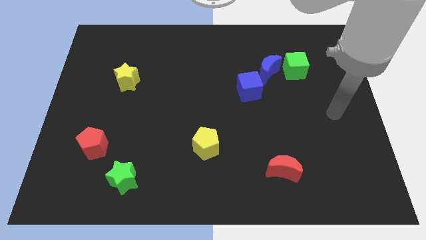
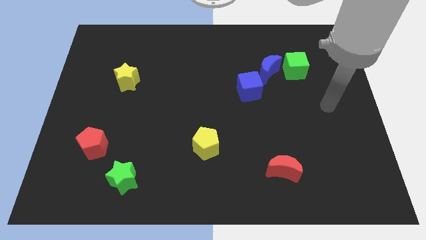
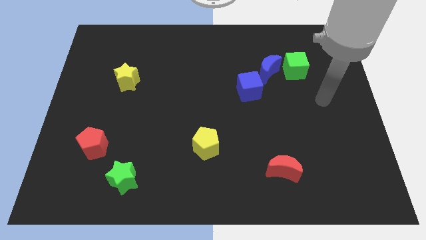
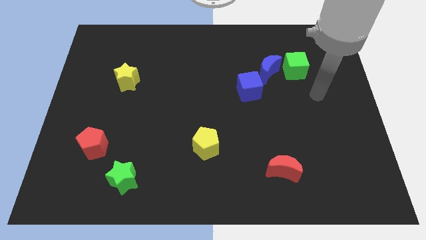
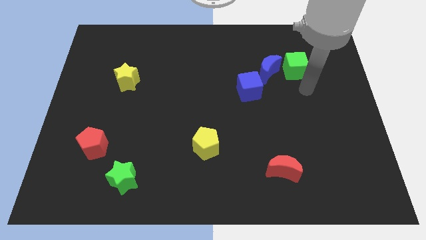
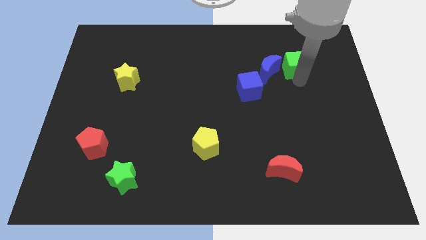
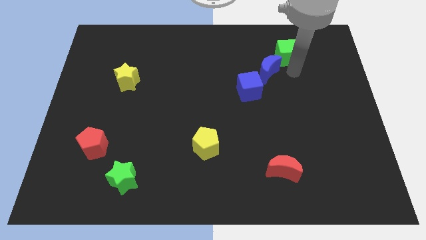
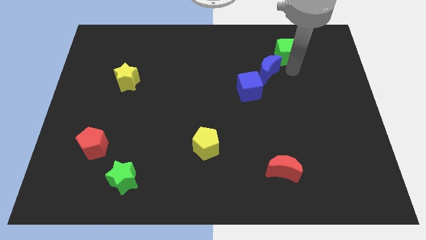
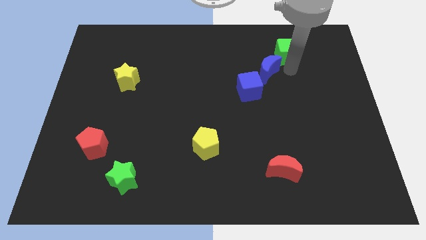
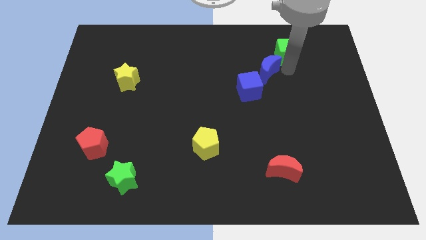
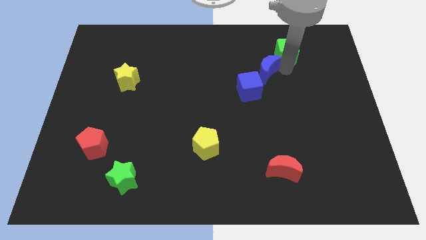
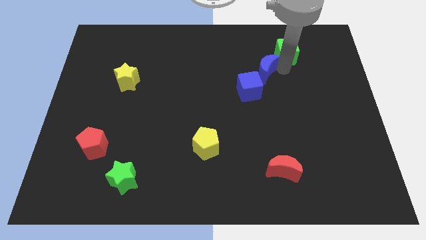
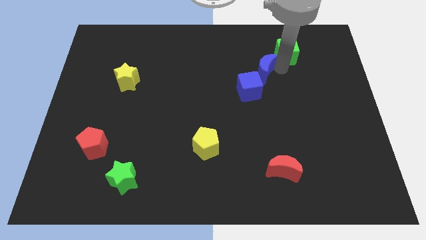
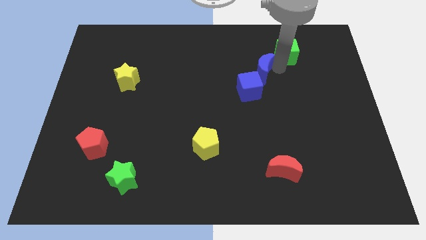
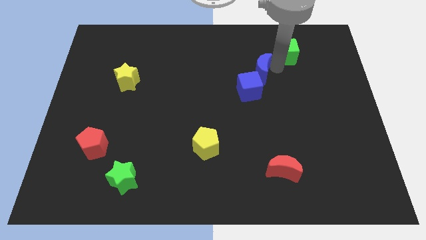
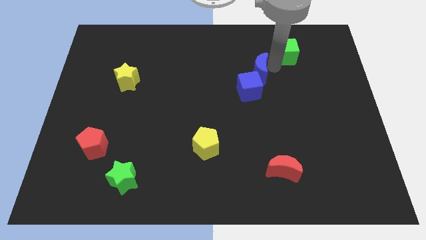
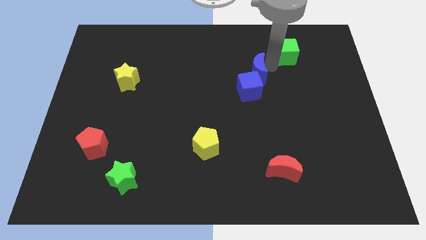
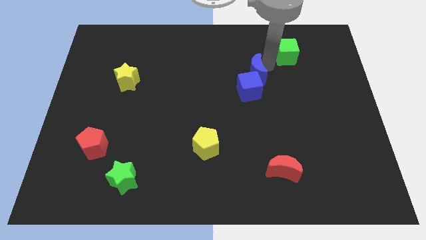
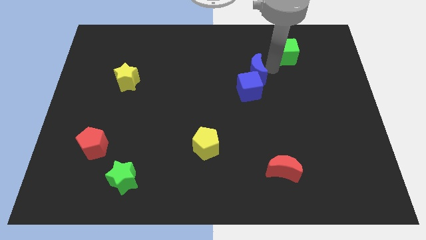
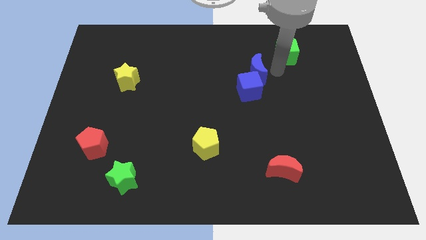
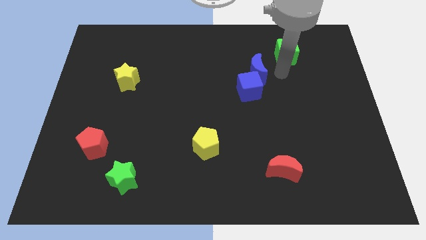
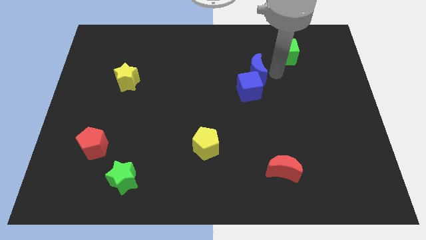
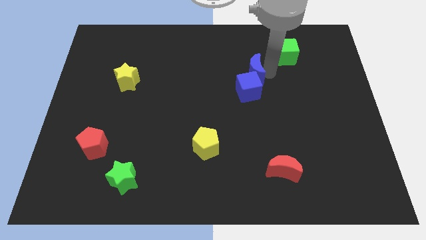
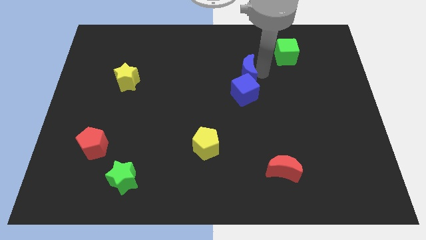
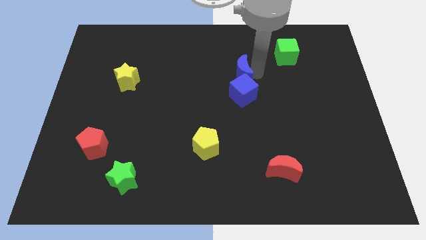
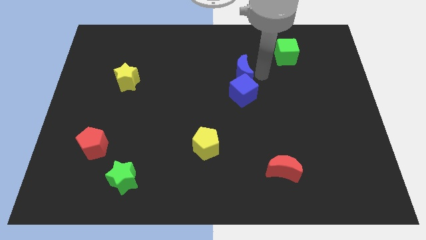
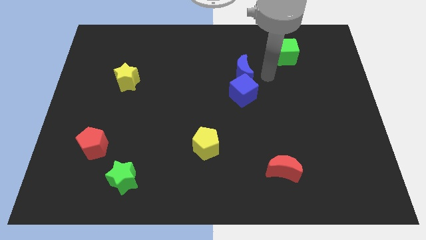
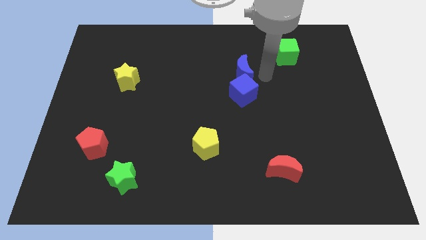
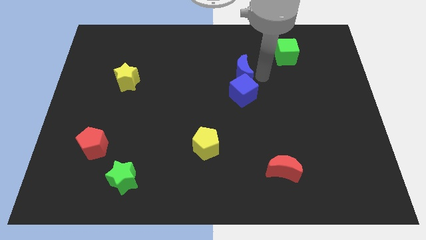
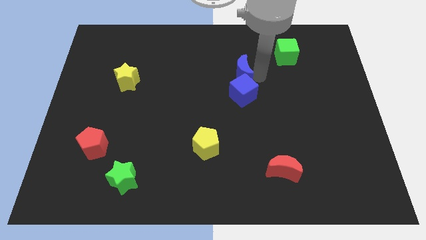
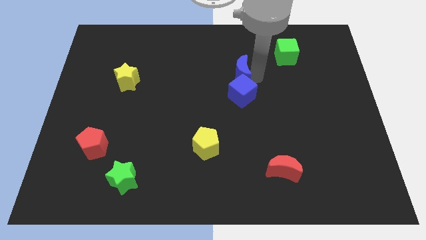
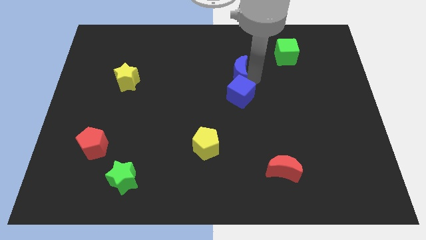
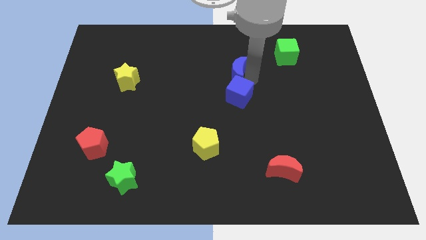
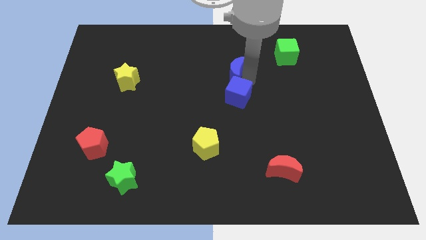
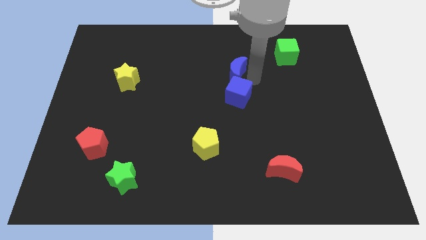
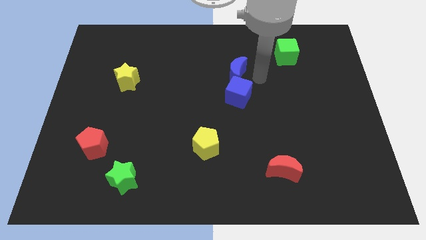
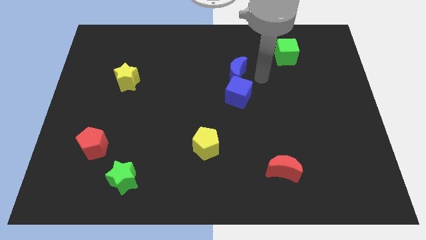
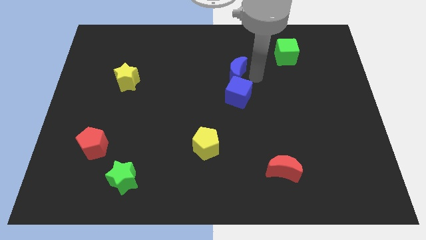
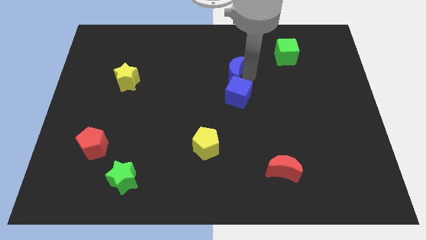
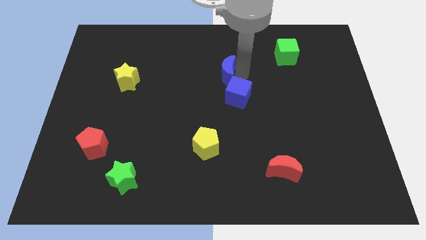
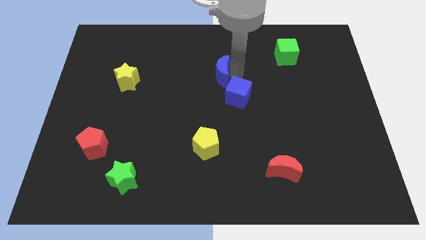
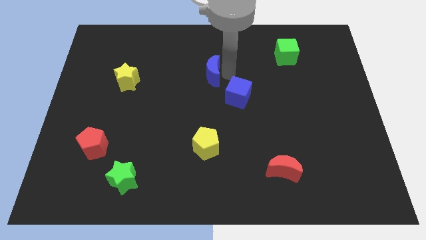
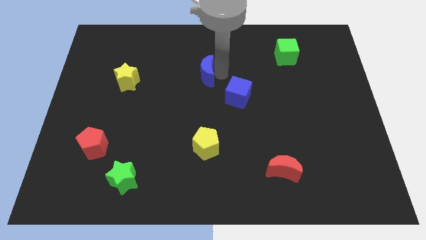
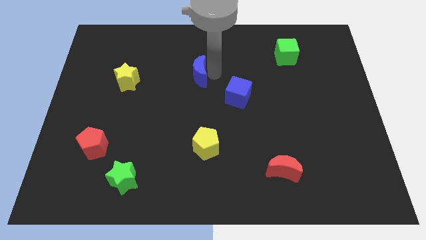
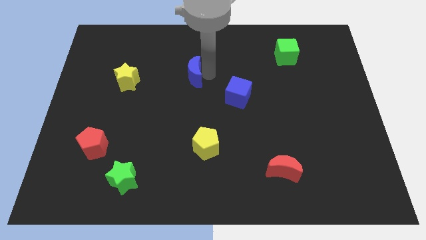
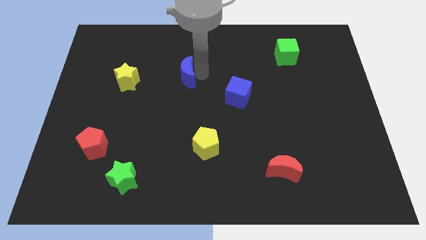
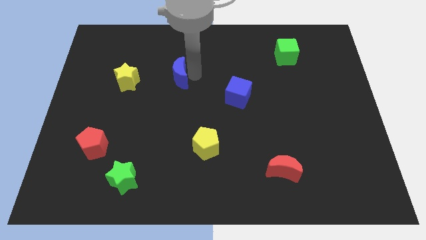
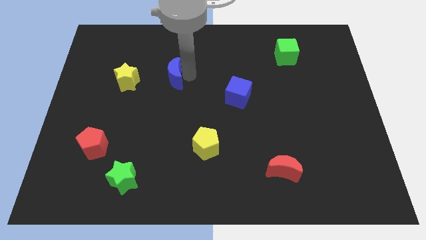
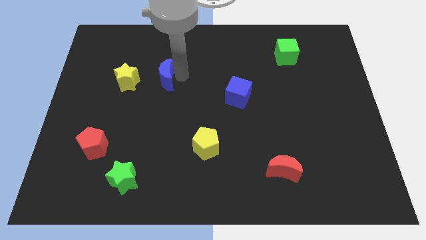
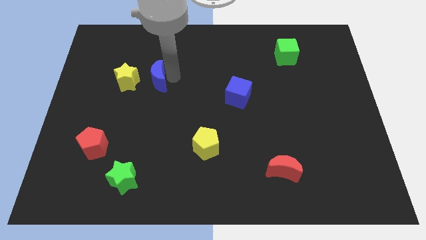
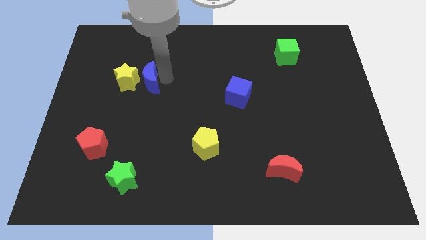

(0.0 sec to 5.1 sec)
put the blue moon towards the yellow star

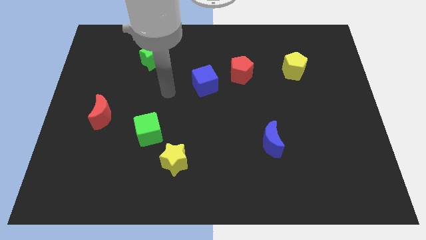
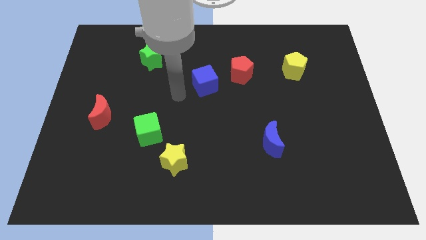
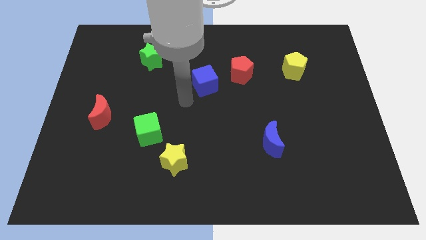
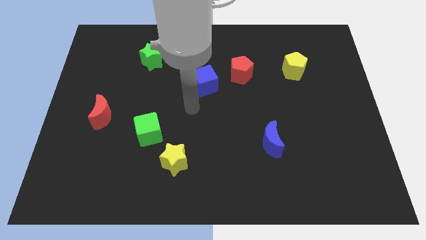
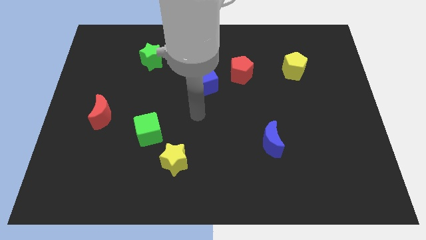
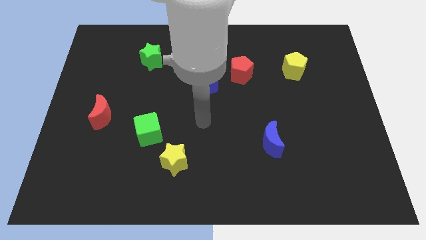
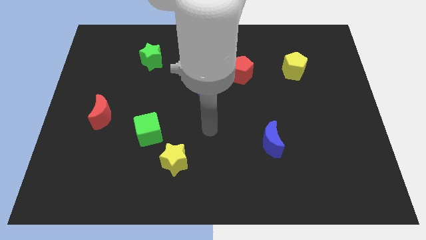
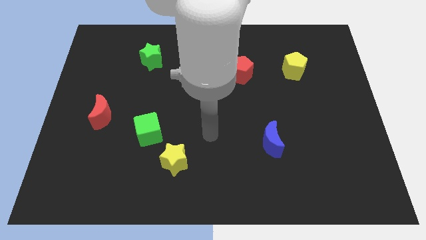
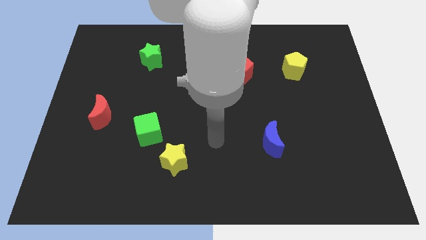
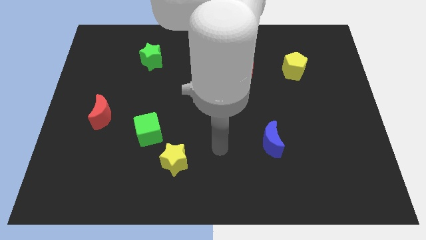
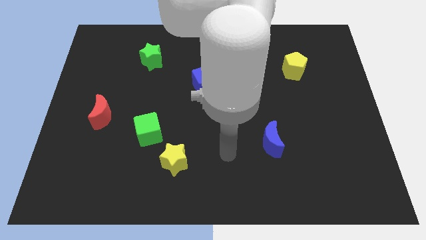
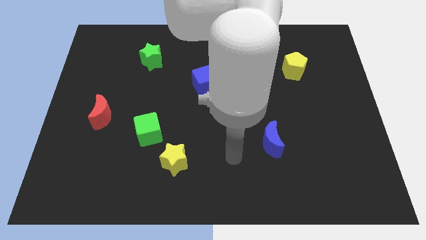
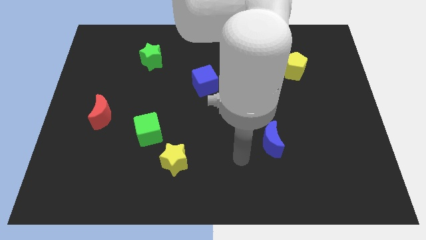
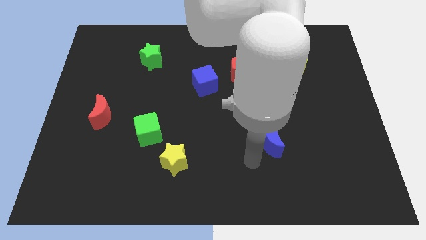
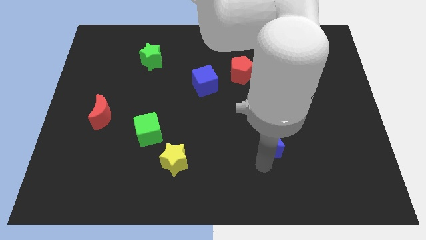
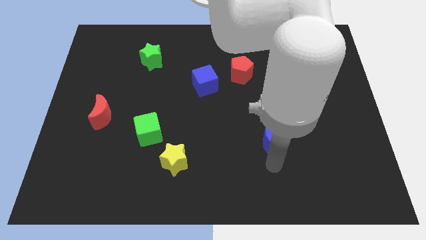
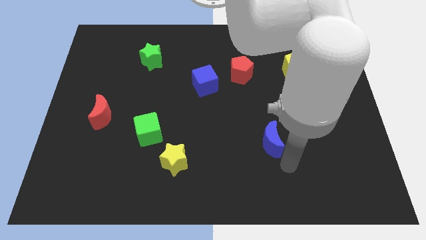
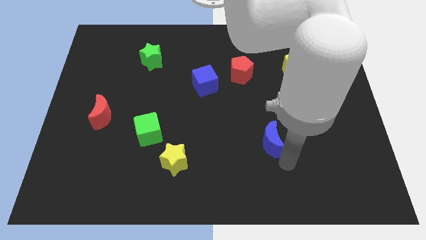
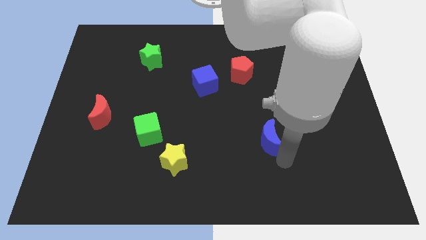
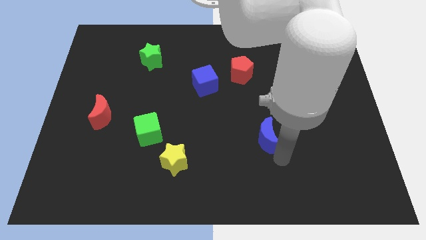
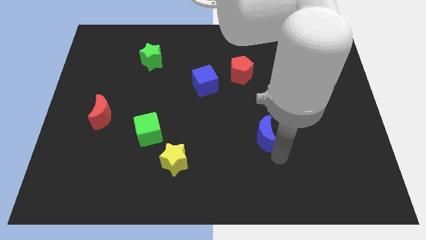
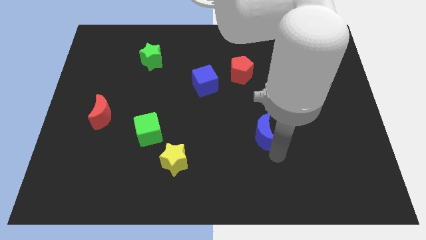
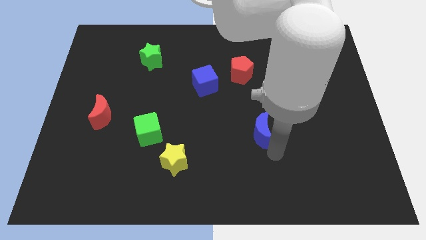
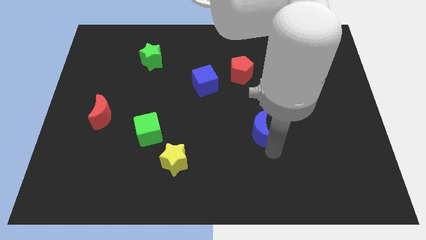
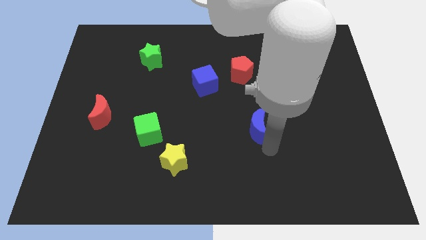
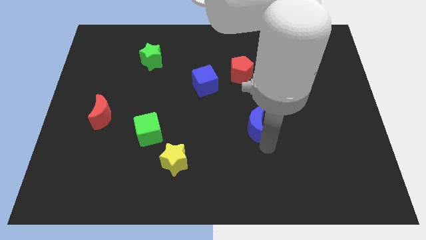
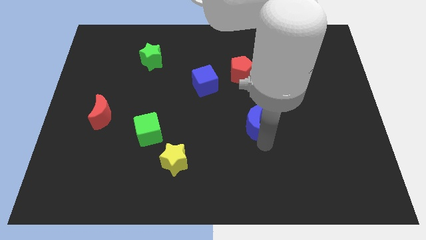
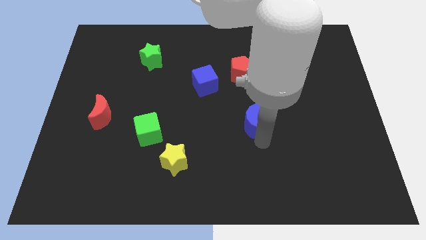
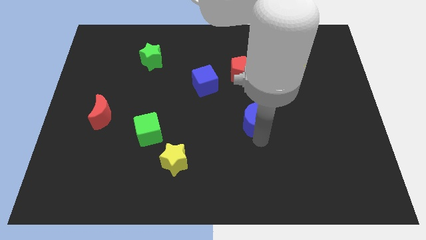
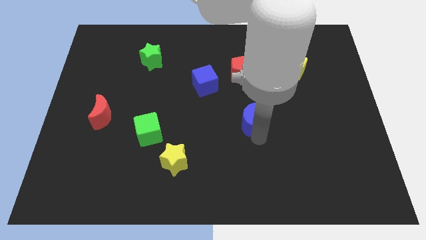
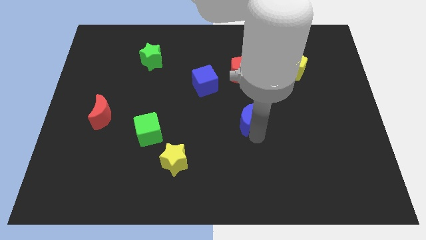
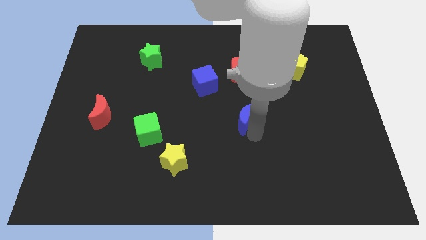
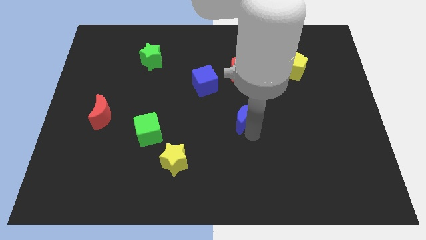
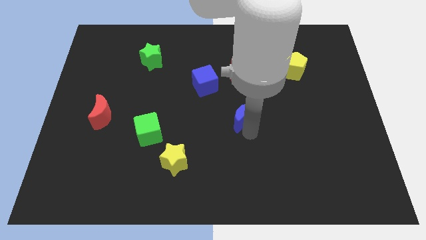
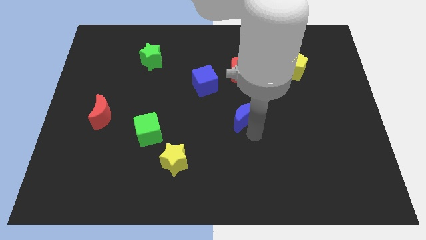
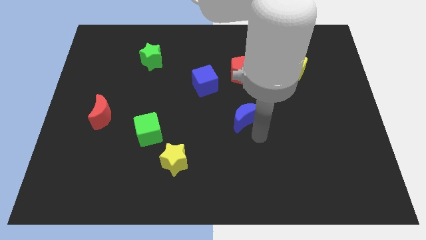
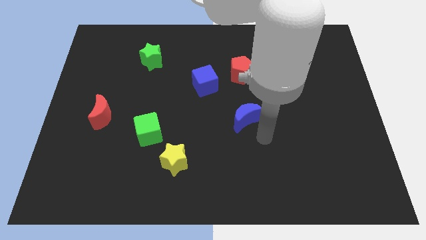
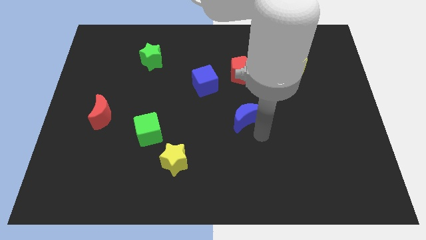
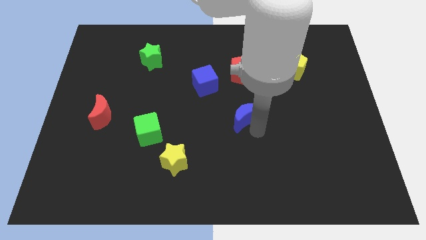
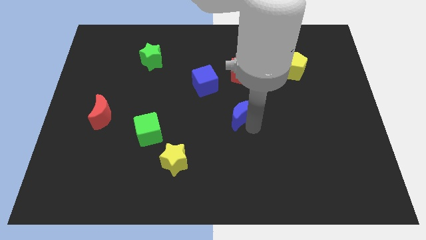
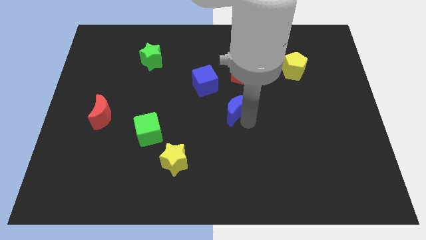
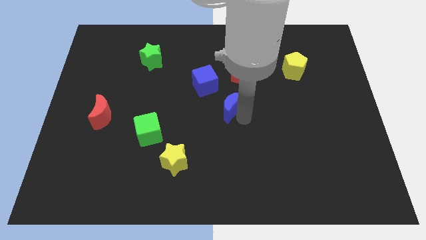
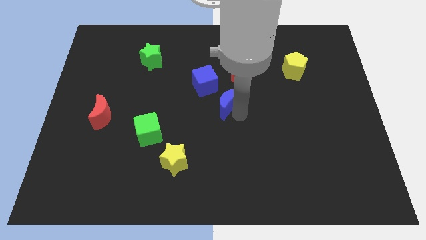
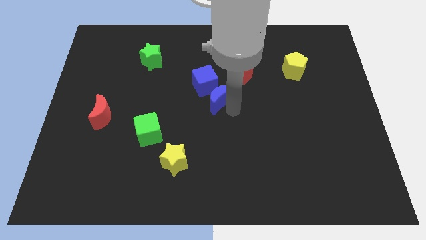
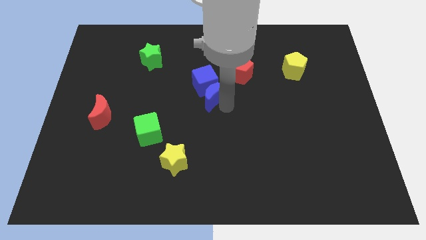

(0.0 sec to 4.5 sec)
move the blue moon to the blue cube
